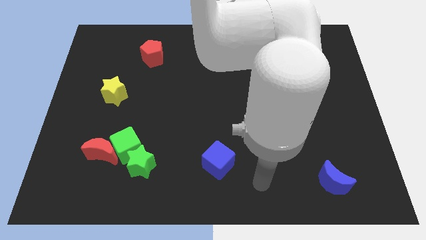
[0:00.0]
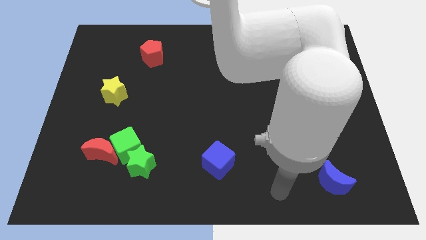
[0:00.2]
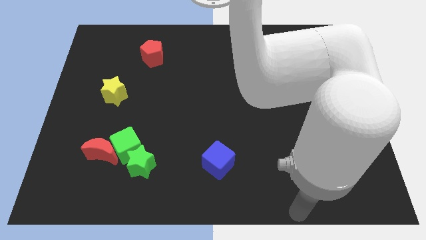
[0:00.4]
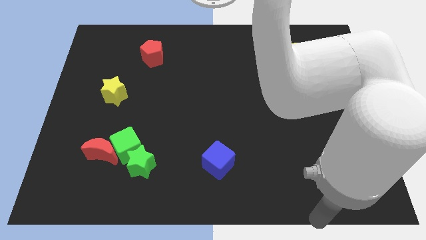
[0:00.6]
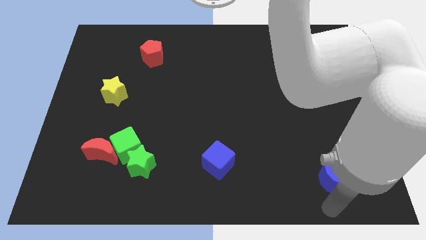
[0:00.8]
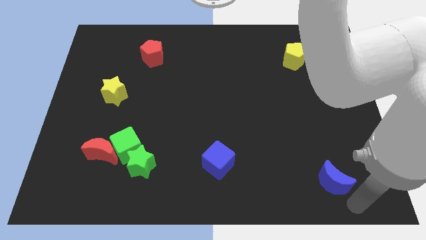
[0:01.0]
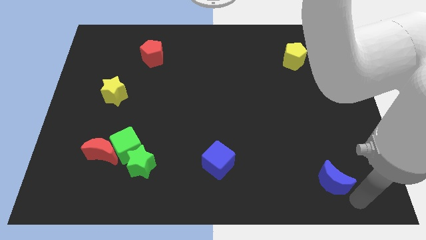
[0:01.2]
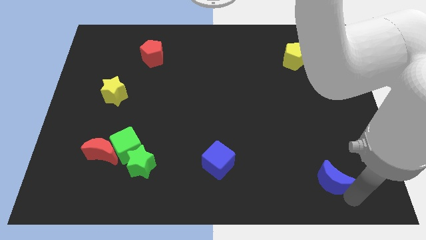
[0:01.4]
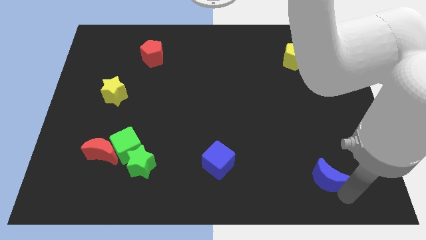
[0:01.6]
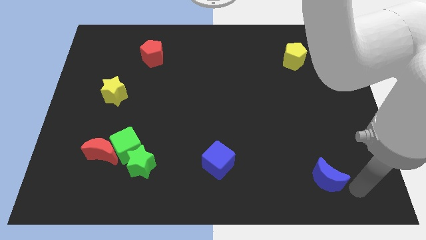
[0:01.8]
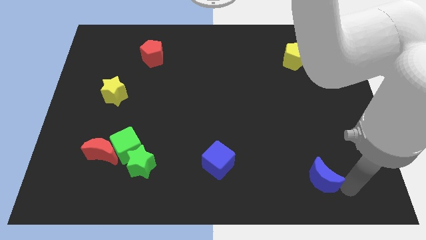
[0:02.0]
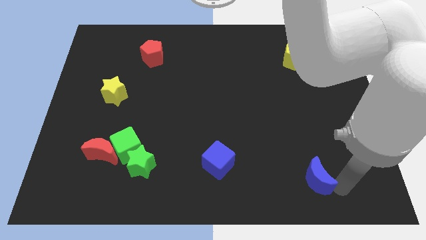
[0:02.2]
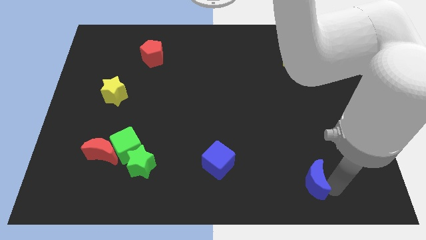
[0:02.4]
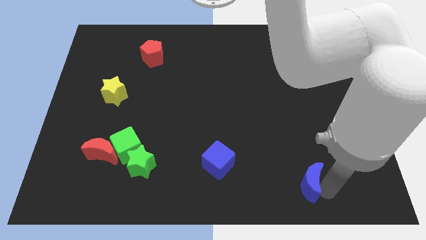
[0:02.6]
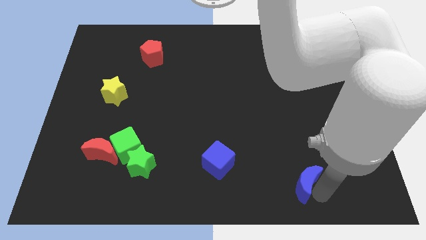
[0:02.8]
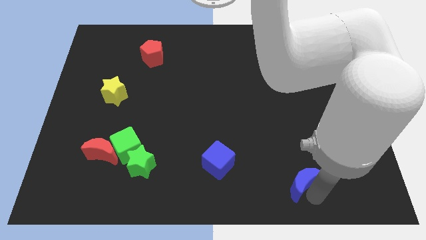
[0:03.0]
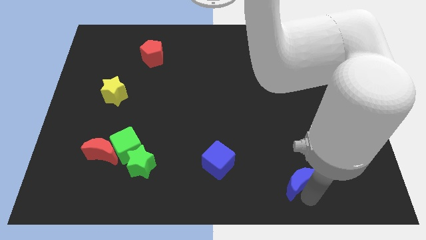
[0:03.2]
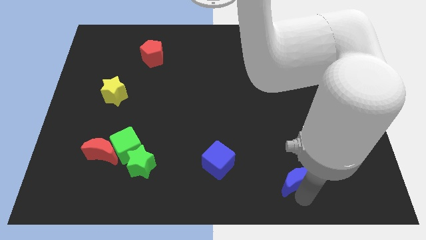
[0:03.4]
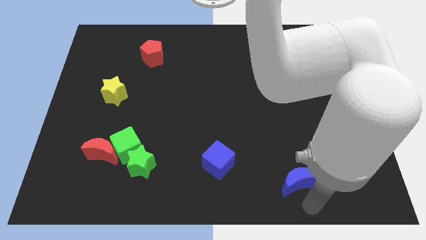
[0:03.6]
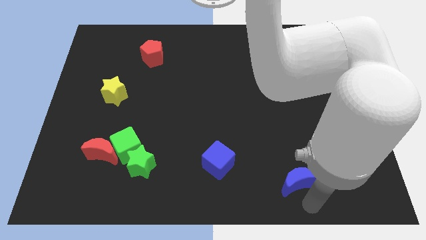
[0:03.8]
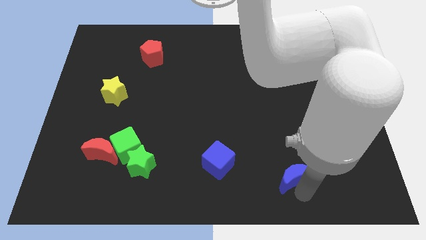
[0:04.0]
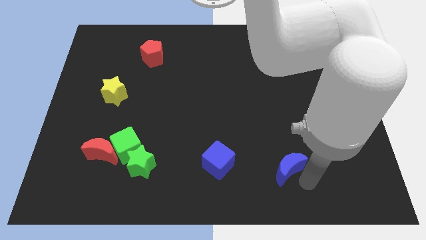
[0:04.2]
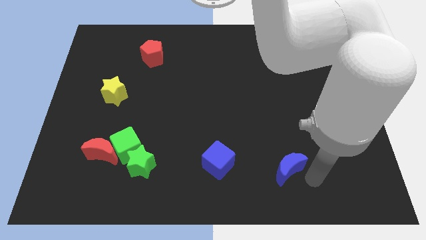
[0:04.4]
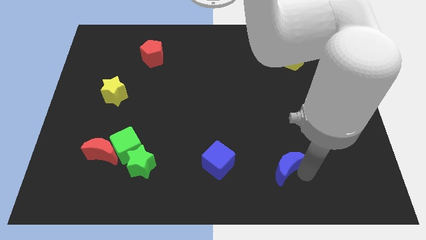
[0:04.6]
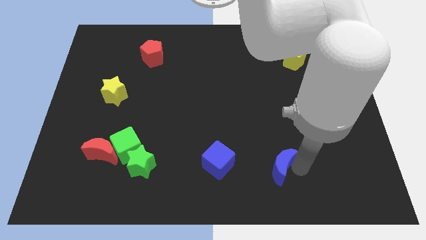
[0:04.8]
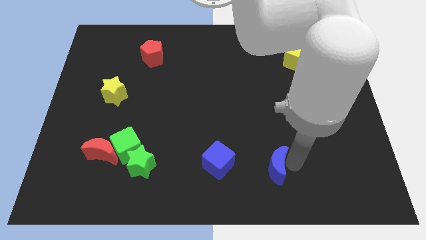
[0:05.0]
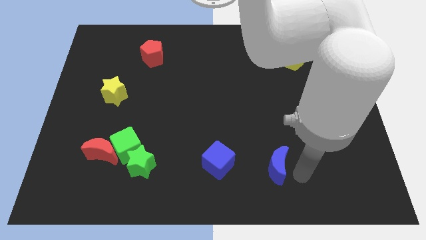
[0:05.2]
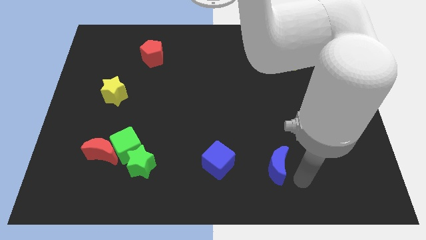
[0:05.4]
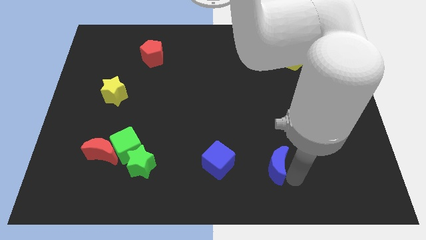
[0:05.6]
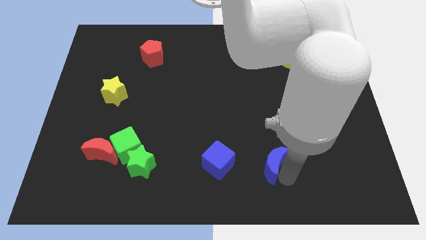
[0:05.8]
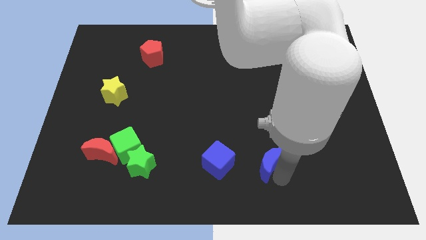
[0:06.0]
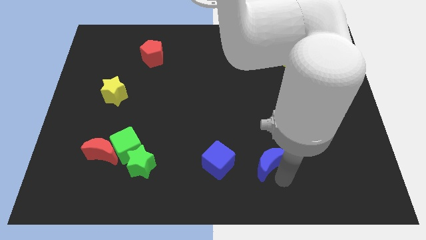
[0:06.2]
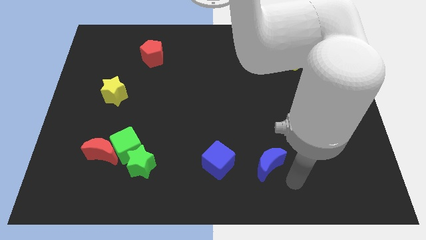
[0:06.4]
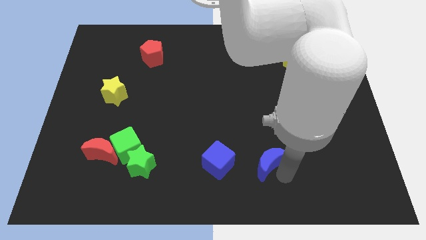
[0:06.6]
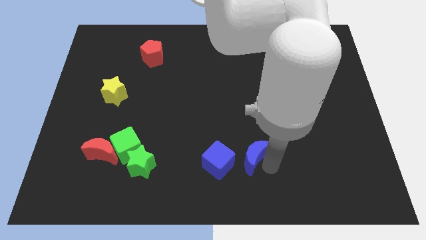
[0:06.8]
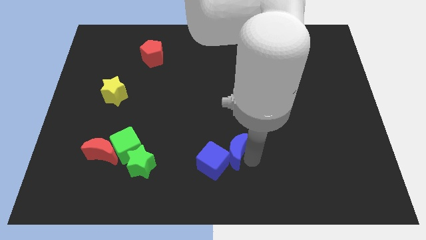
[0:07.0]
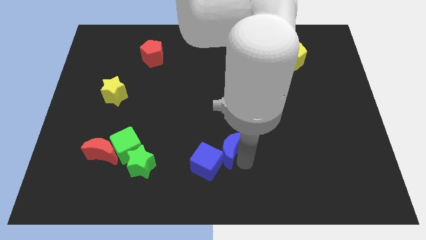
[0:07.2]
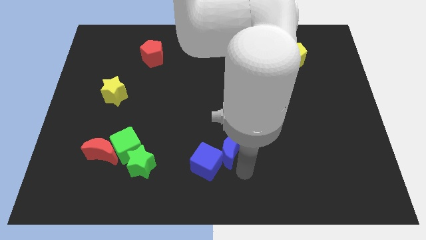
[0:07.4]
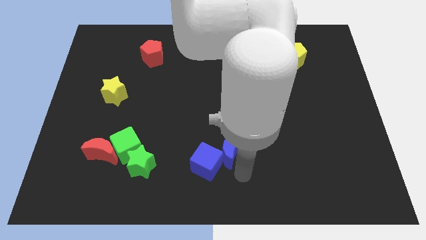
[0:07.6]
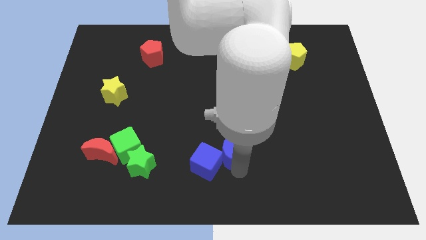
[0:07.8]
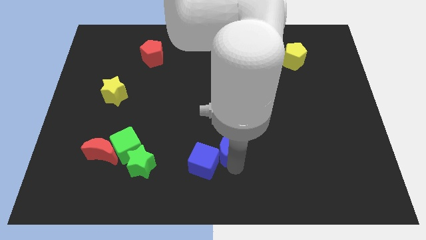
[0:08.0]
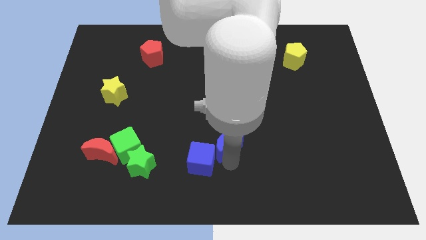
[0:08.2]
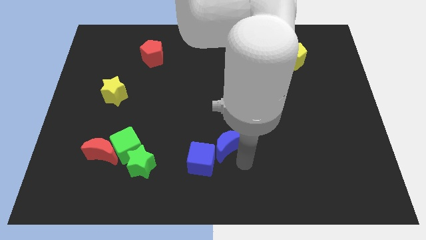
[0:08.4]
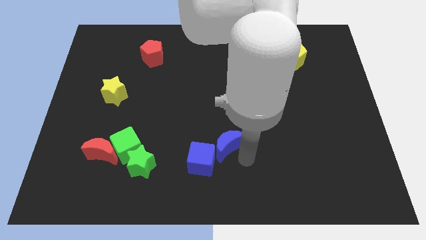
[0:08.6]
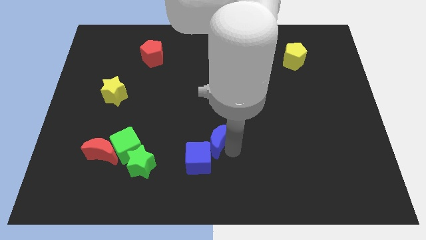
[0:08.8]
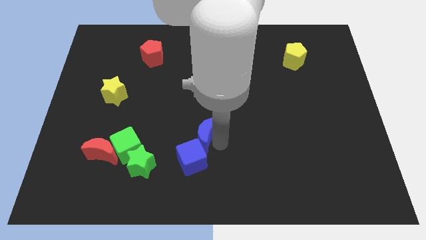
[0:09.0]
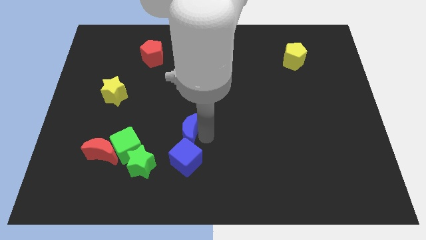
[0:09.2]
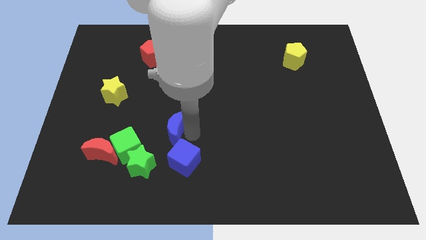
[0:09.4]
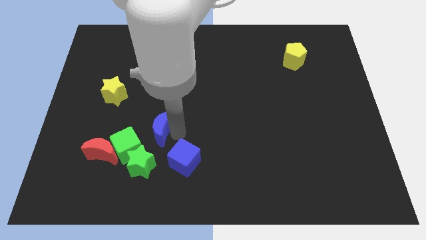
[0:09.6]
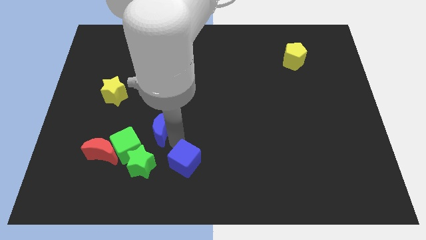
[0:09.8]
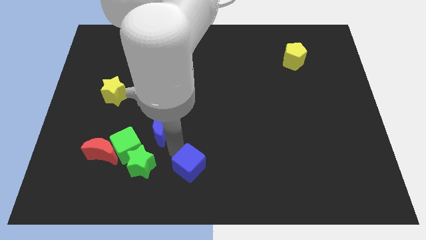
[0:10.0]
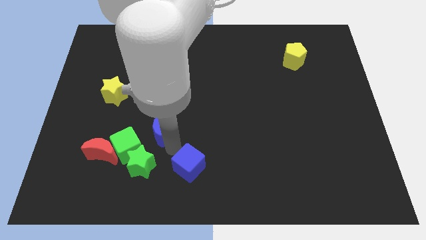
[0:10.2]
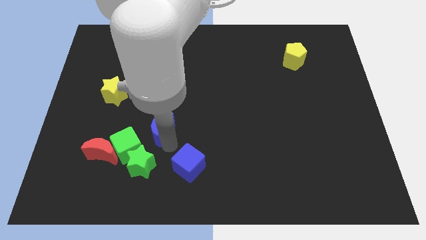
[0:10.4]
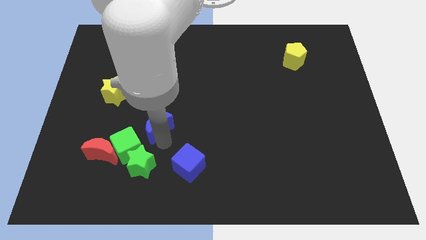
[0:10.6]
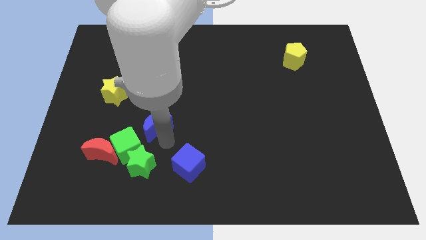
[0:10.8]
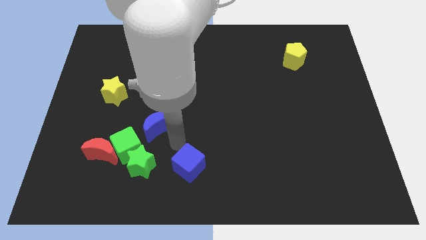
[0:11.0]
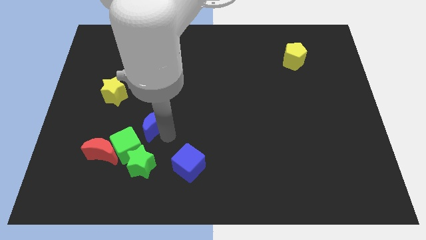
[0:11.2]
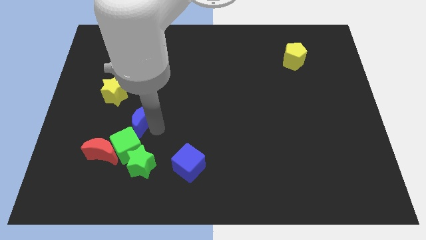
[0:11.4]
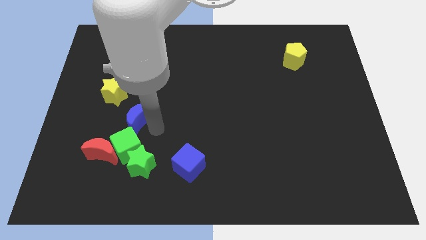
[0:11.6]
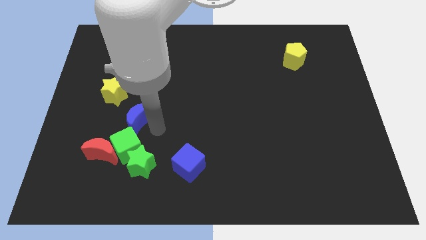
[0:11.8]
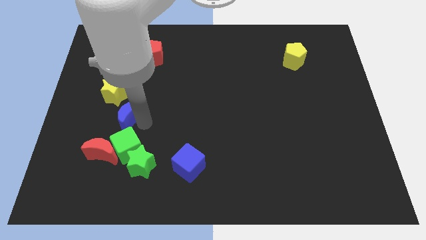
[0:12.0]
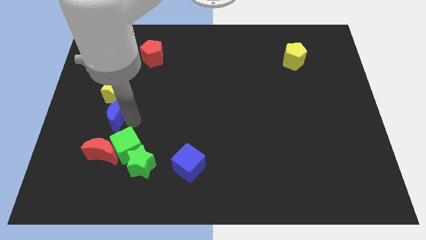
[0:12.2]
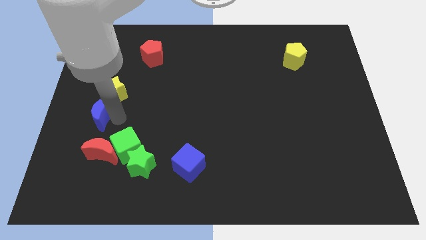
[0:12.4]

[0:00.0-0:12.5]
slide the blue moon to the left side of the board
